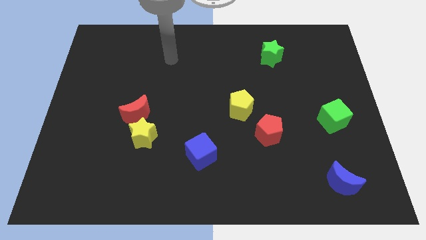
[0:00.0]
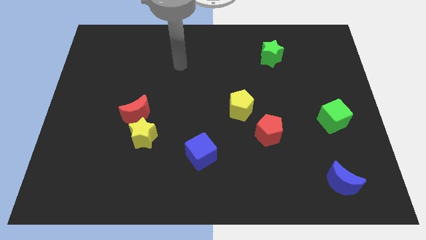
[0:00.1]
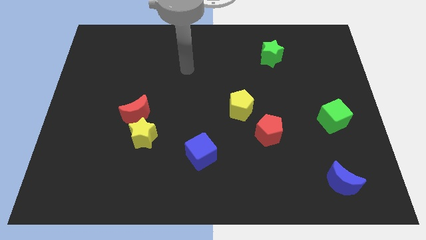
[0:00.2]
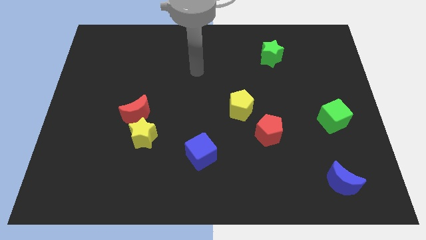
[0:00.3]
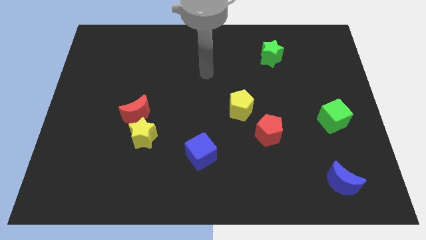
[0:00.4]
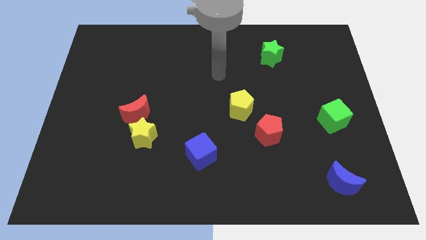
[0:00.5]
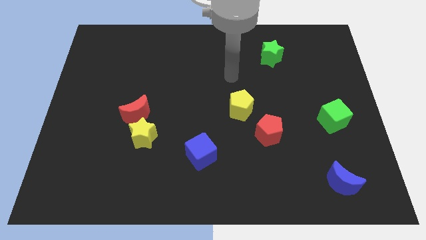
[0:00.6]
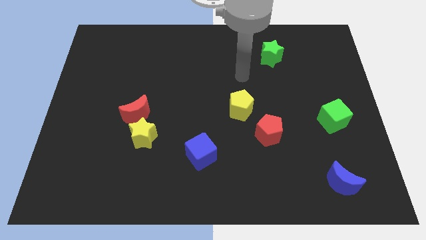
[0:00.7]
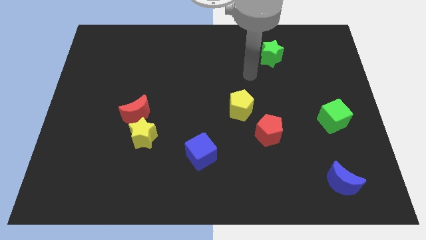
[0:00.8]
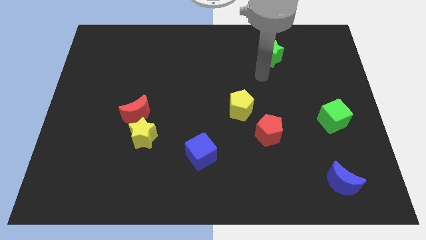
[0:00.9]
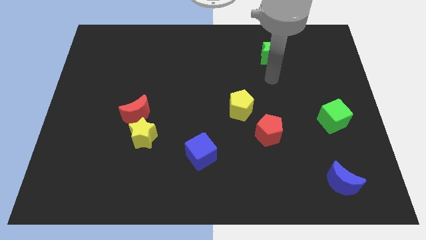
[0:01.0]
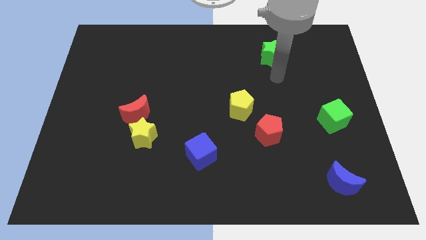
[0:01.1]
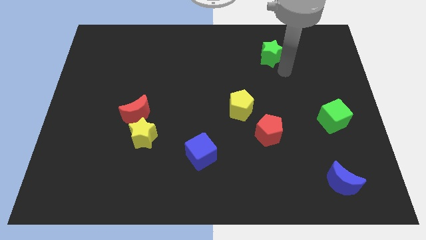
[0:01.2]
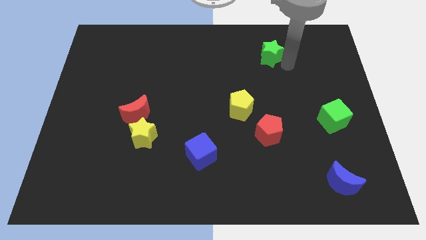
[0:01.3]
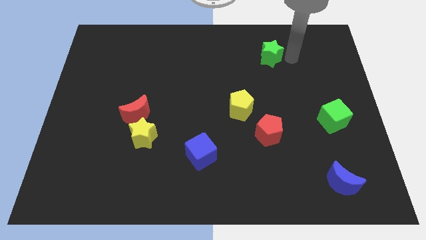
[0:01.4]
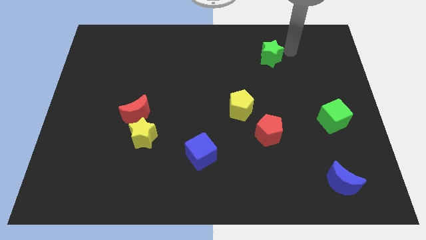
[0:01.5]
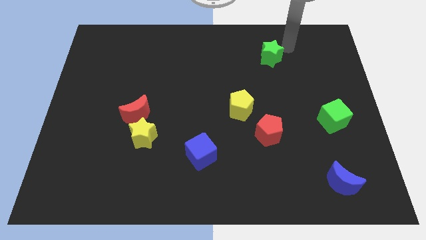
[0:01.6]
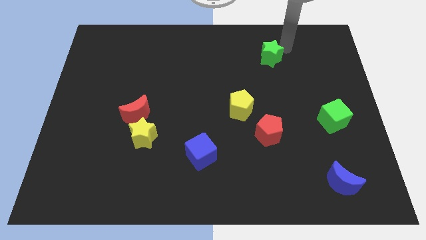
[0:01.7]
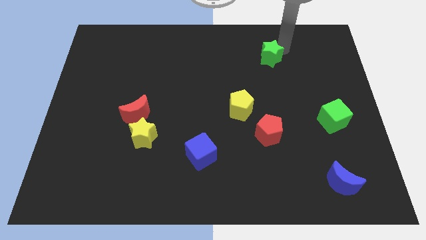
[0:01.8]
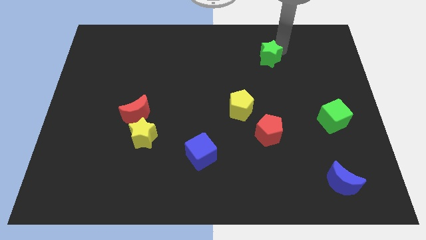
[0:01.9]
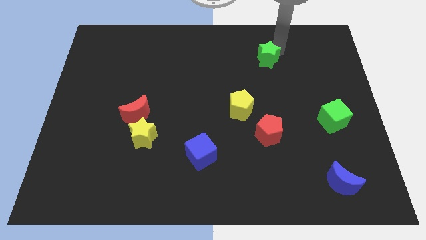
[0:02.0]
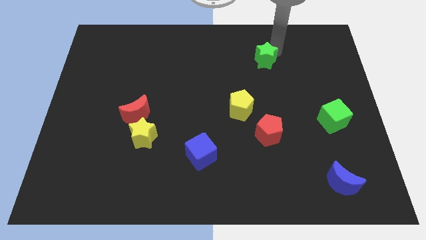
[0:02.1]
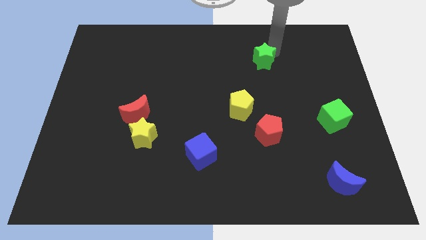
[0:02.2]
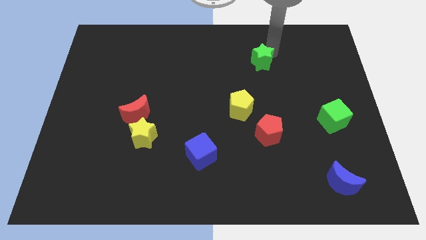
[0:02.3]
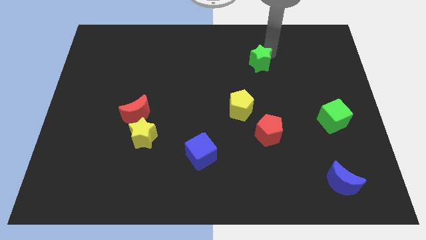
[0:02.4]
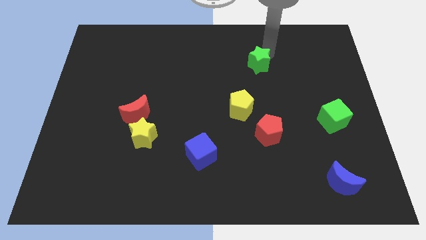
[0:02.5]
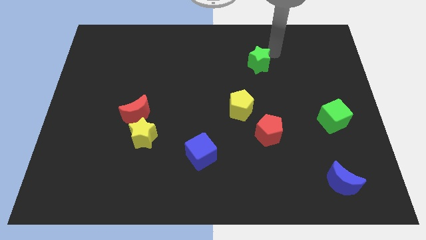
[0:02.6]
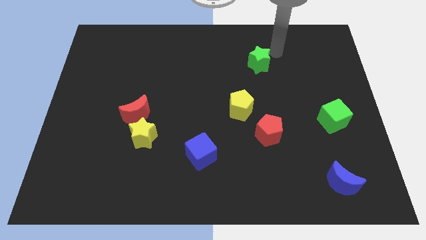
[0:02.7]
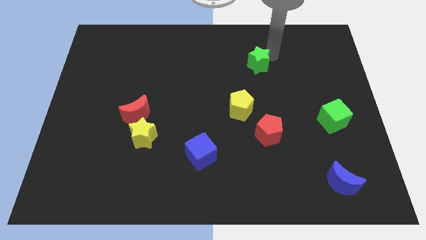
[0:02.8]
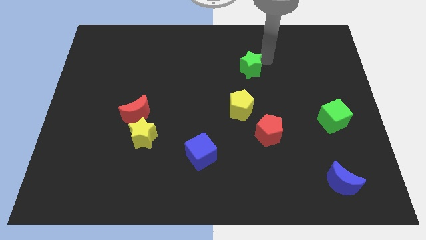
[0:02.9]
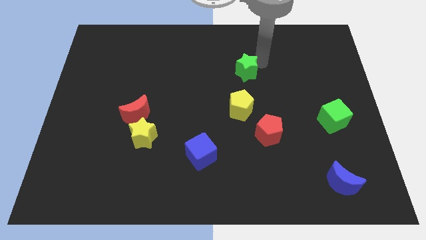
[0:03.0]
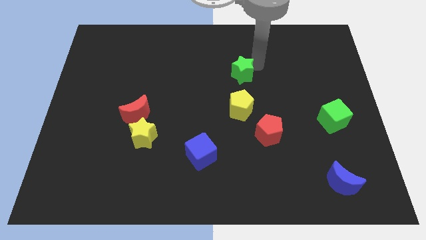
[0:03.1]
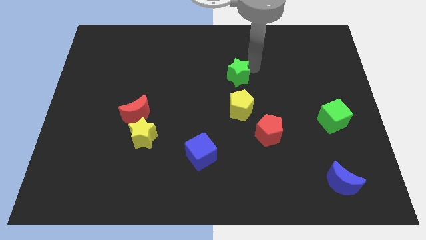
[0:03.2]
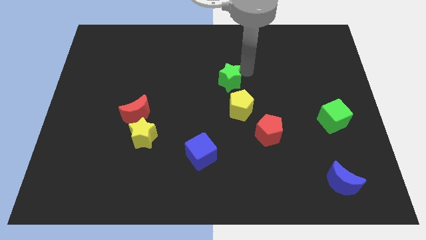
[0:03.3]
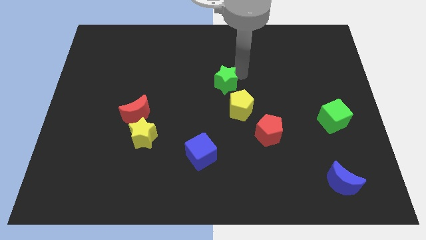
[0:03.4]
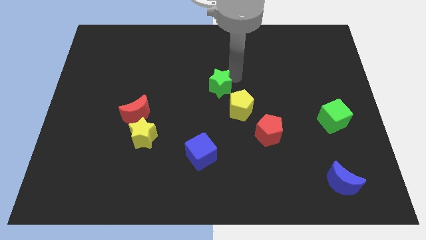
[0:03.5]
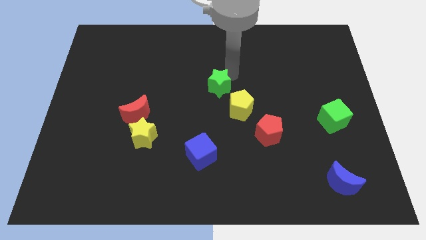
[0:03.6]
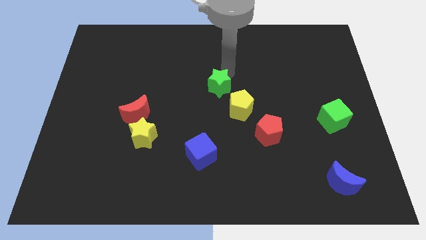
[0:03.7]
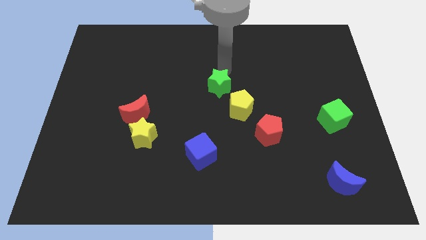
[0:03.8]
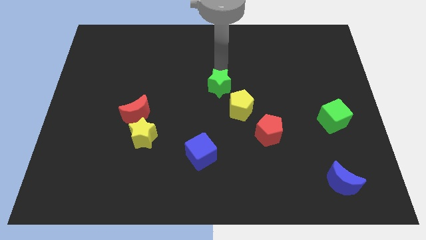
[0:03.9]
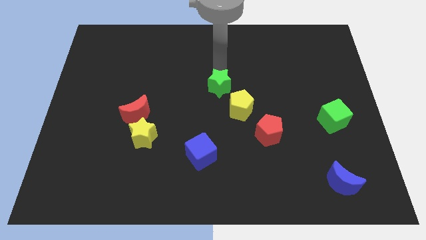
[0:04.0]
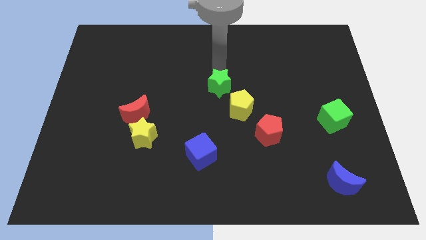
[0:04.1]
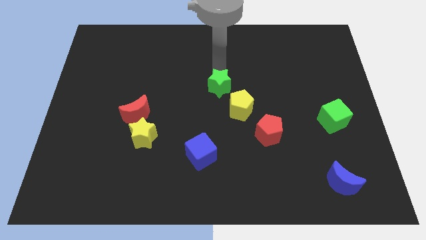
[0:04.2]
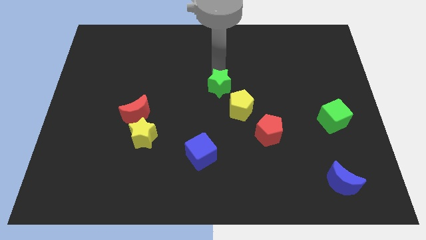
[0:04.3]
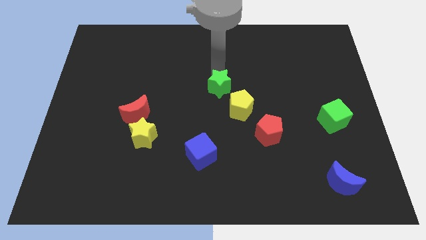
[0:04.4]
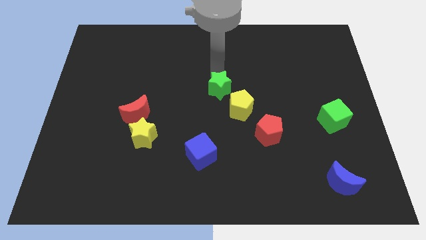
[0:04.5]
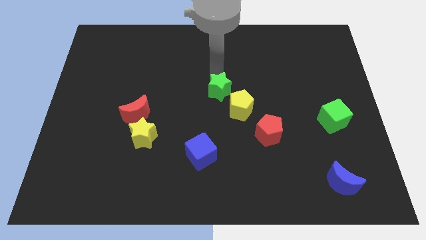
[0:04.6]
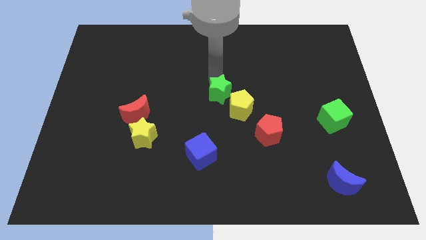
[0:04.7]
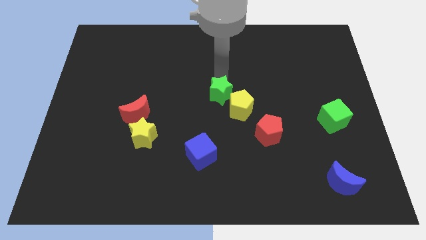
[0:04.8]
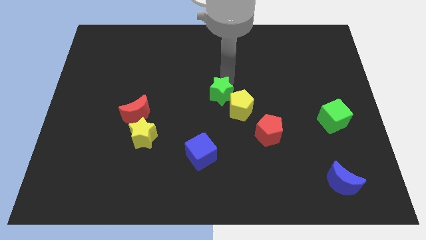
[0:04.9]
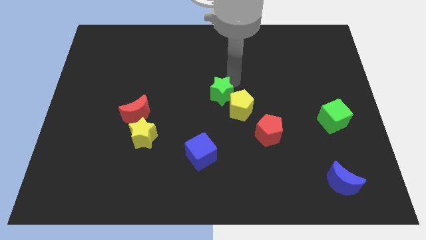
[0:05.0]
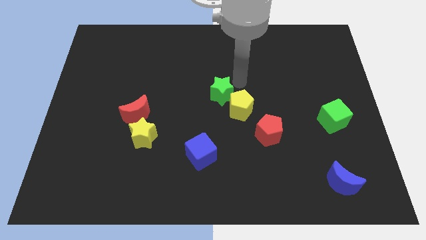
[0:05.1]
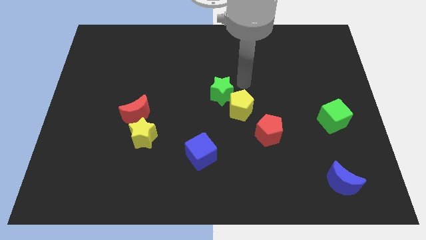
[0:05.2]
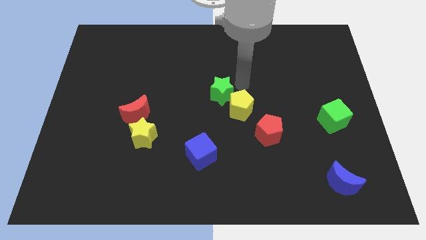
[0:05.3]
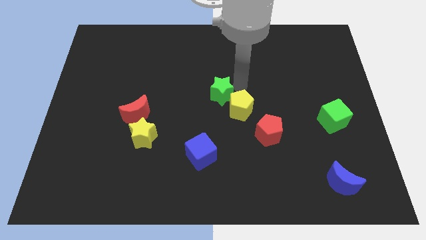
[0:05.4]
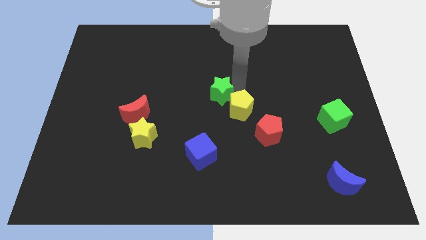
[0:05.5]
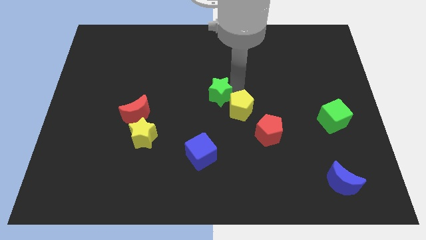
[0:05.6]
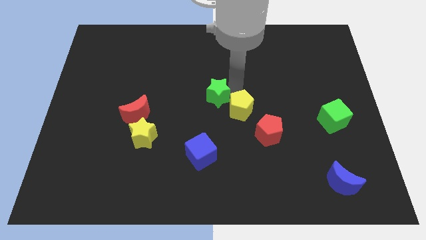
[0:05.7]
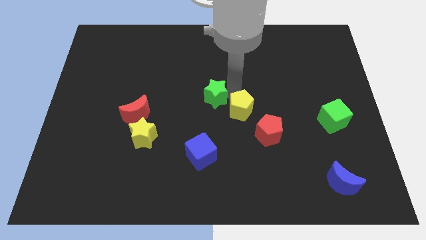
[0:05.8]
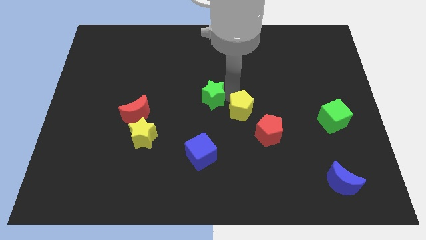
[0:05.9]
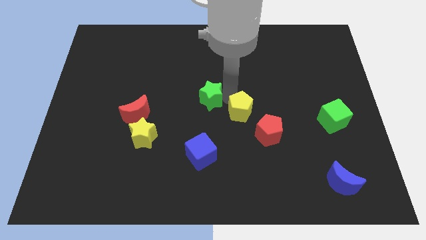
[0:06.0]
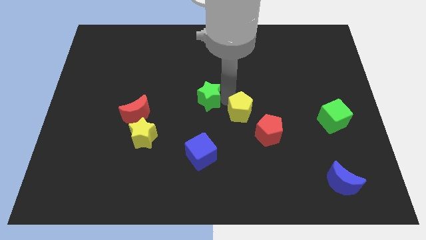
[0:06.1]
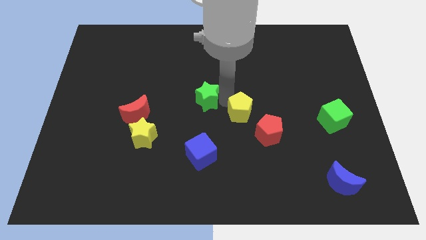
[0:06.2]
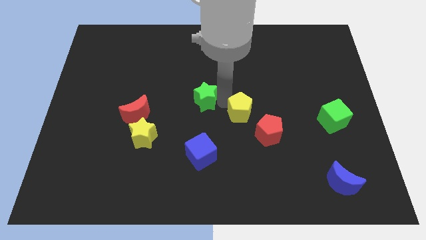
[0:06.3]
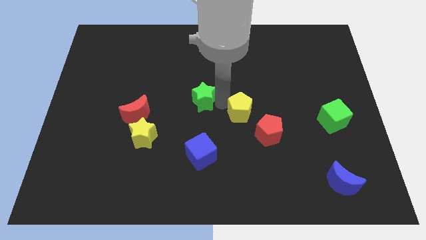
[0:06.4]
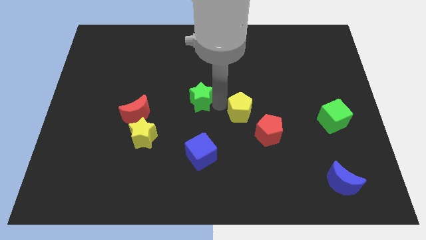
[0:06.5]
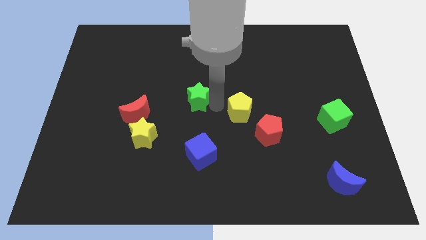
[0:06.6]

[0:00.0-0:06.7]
push the green star to the right side of the red moon

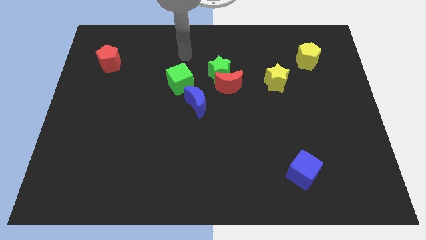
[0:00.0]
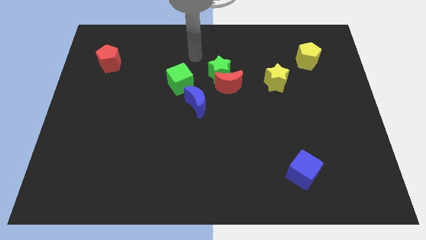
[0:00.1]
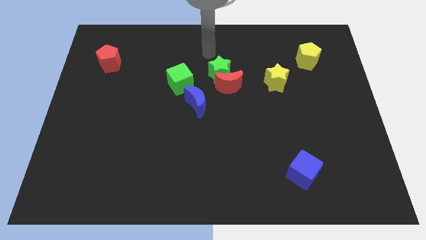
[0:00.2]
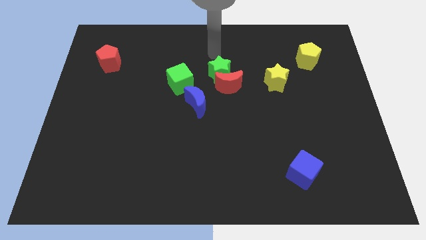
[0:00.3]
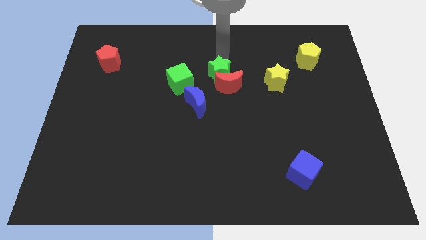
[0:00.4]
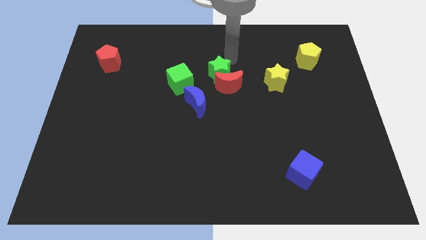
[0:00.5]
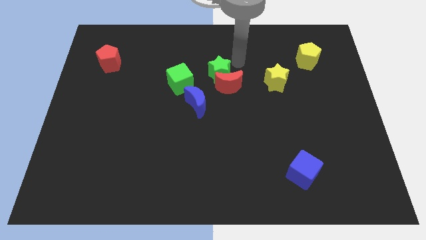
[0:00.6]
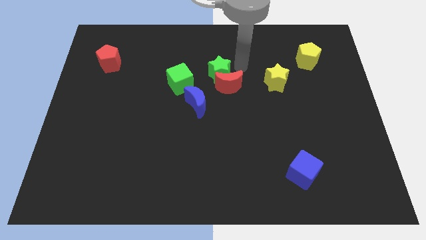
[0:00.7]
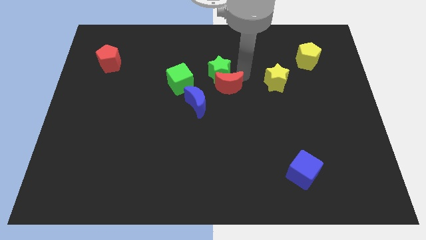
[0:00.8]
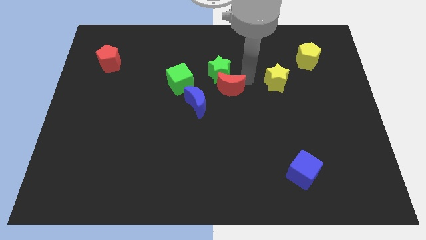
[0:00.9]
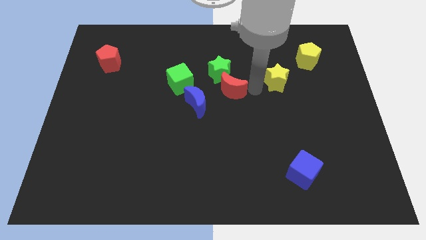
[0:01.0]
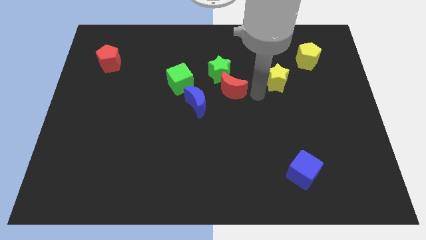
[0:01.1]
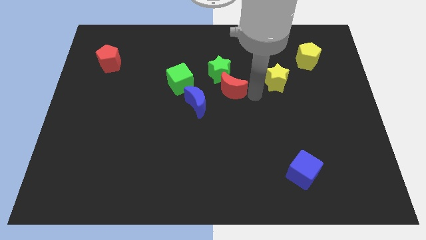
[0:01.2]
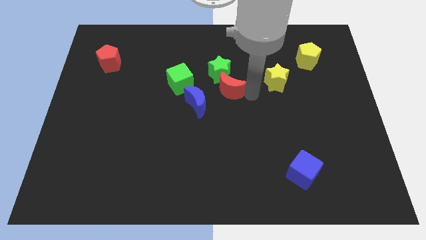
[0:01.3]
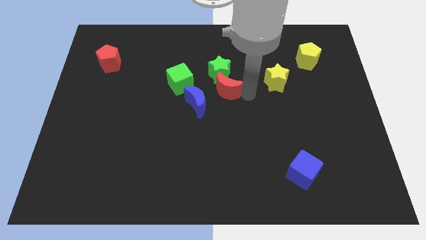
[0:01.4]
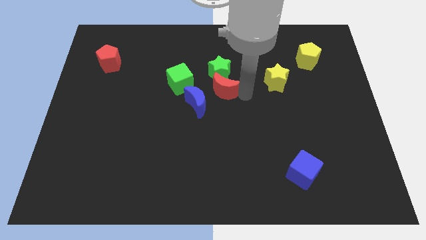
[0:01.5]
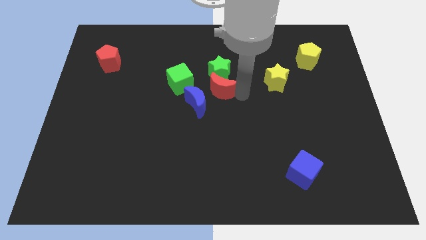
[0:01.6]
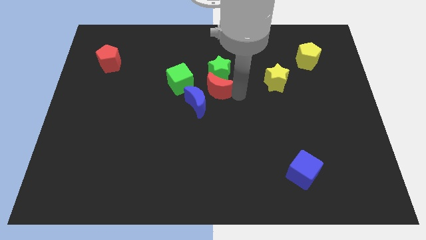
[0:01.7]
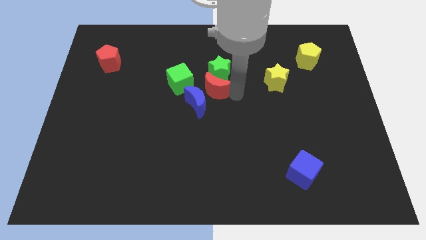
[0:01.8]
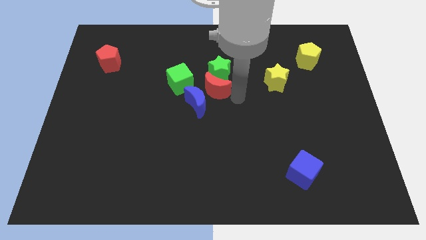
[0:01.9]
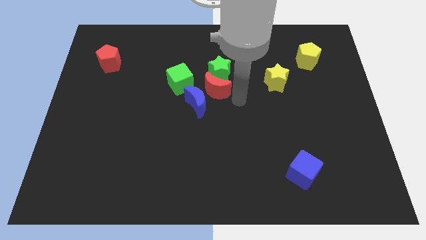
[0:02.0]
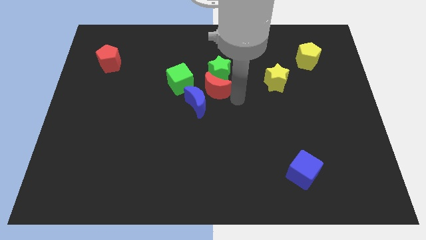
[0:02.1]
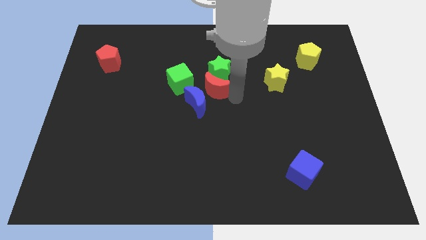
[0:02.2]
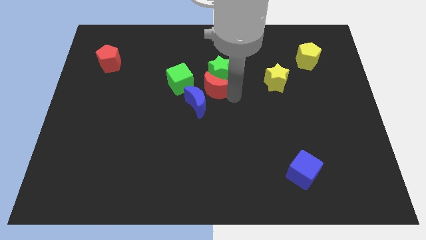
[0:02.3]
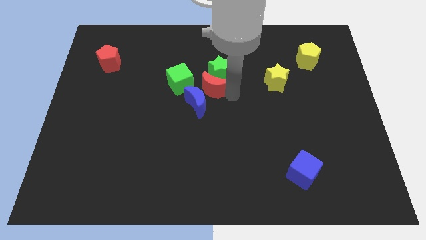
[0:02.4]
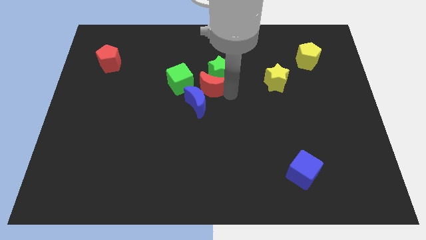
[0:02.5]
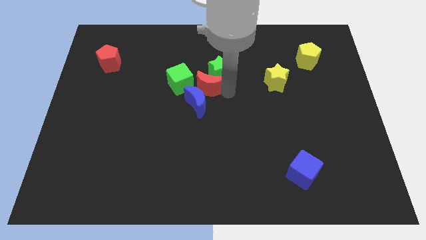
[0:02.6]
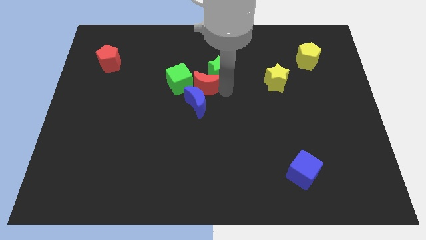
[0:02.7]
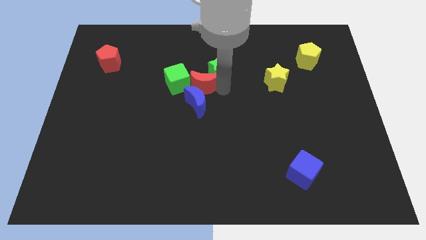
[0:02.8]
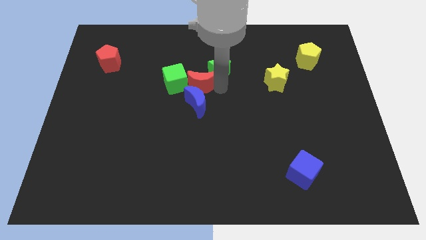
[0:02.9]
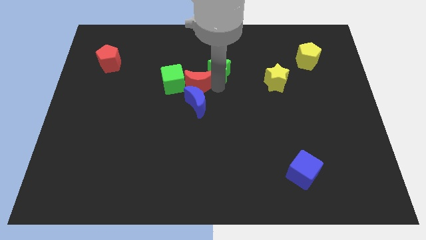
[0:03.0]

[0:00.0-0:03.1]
push the red moon to the top right side of the green cube
